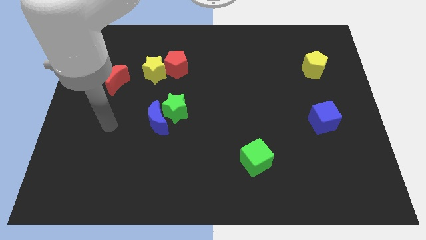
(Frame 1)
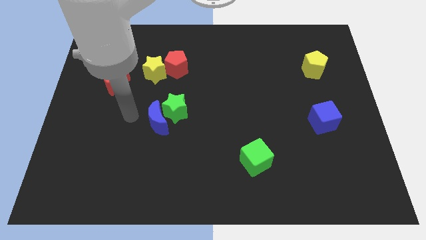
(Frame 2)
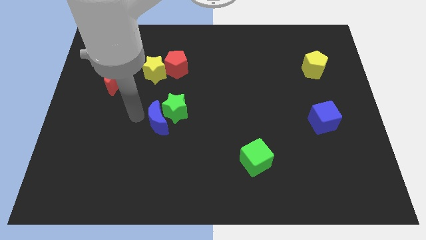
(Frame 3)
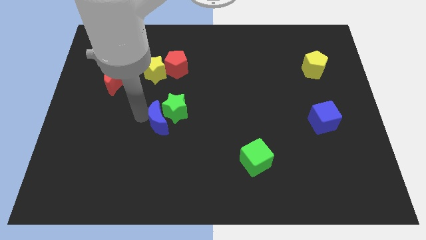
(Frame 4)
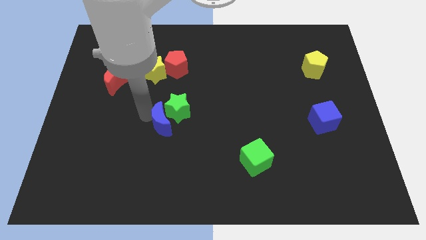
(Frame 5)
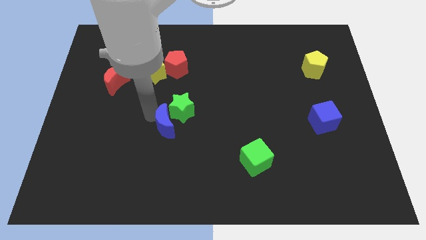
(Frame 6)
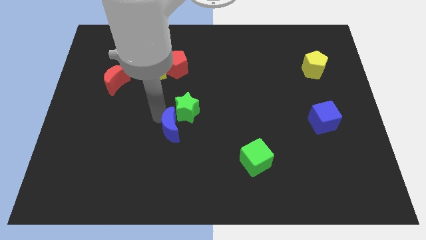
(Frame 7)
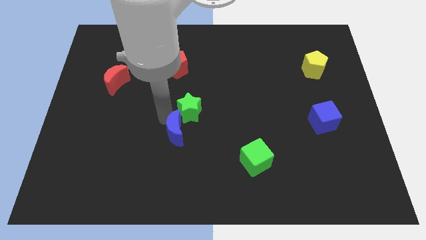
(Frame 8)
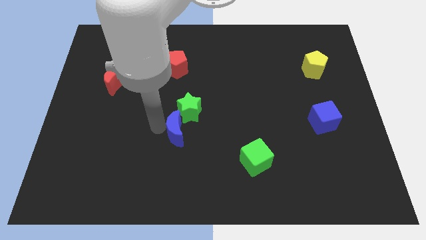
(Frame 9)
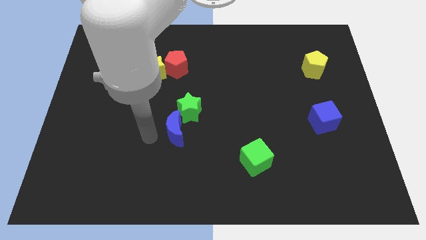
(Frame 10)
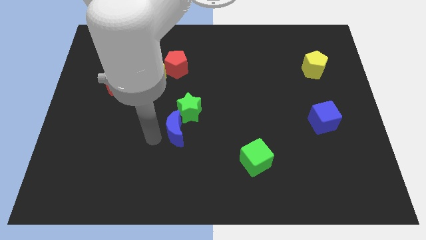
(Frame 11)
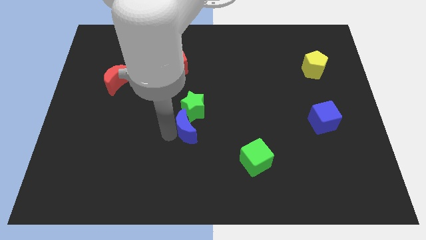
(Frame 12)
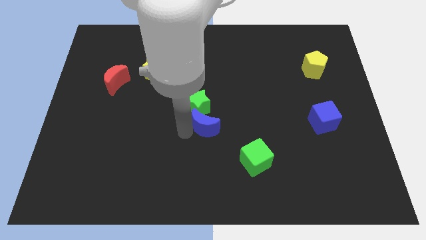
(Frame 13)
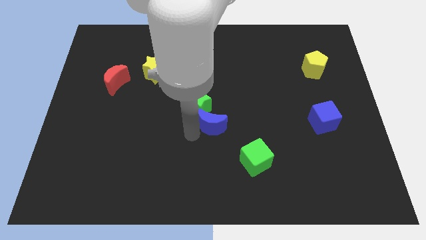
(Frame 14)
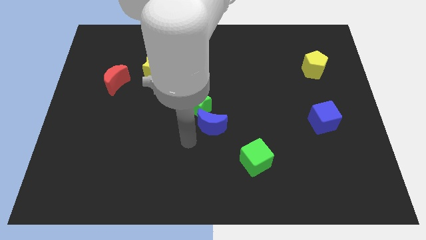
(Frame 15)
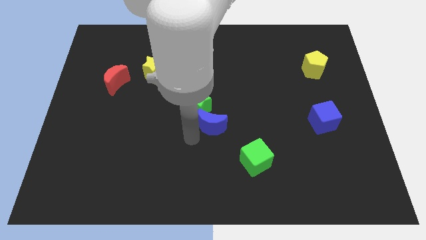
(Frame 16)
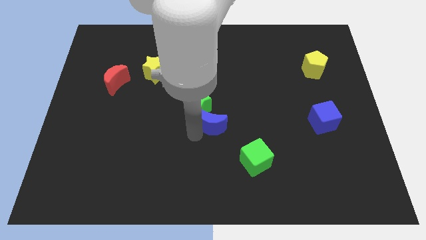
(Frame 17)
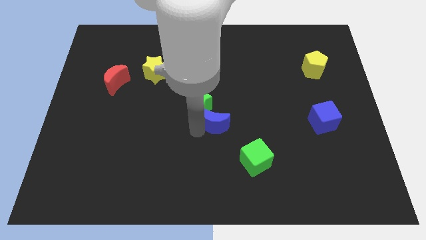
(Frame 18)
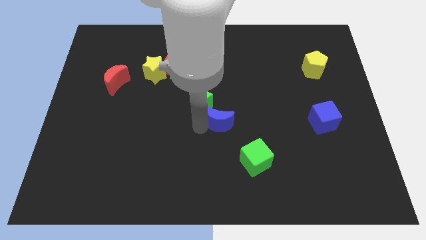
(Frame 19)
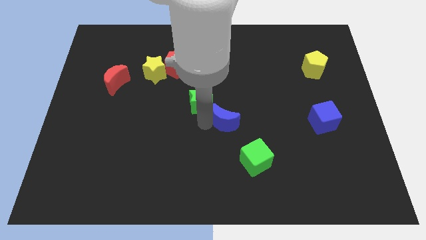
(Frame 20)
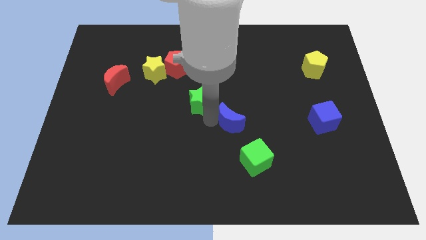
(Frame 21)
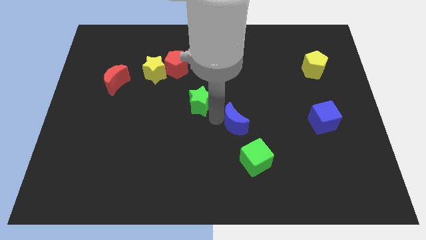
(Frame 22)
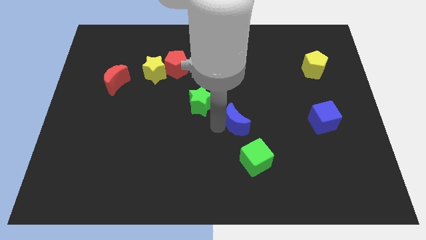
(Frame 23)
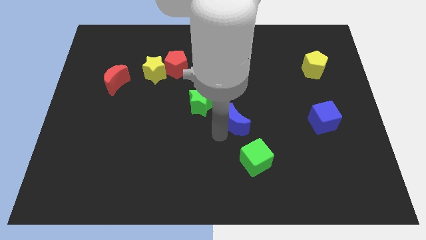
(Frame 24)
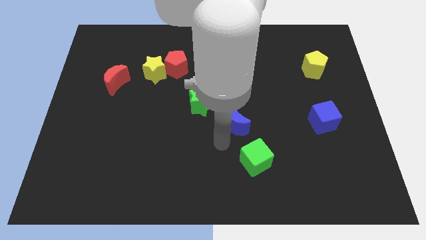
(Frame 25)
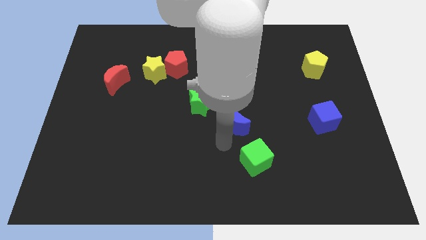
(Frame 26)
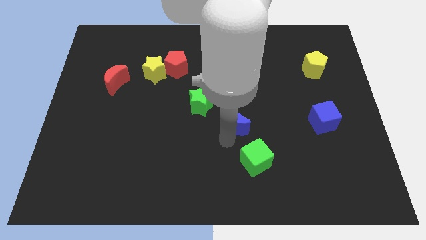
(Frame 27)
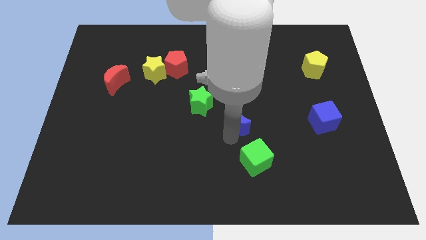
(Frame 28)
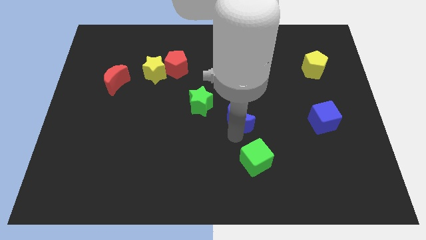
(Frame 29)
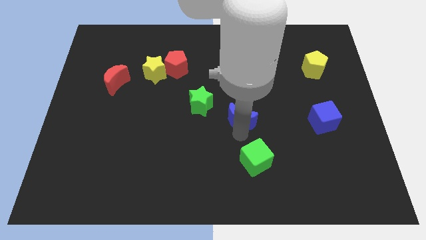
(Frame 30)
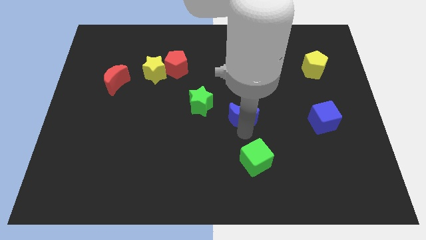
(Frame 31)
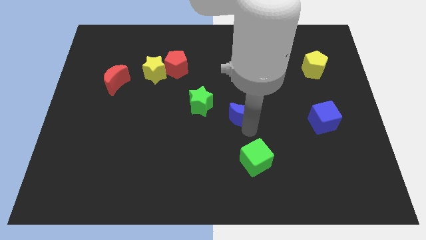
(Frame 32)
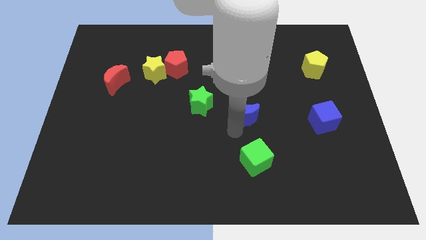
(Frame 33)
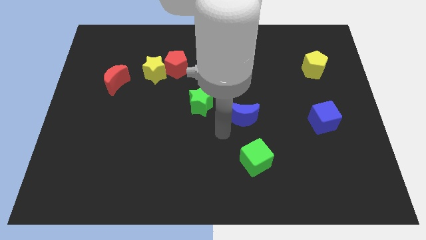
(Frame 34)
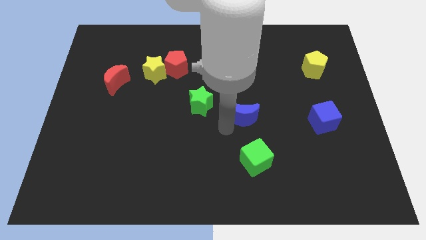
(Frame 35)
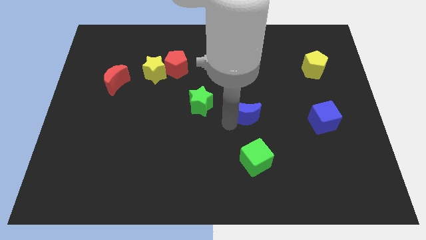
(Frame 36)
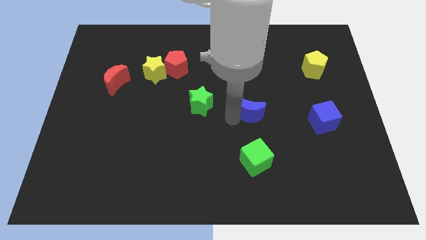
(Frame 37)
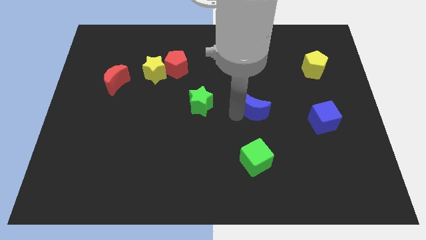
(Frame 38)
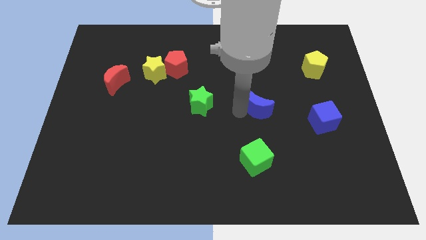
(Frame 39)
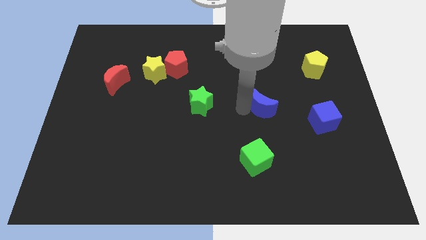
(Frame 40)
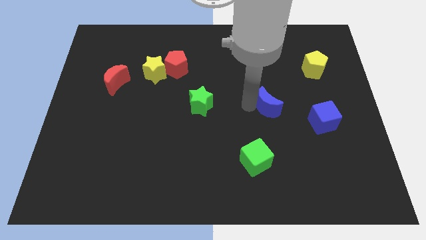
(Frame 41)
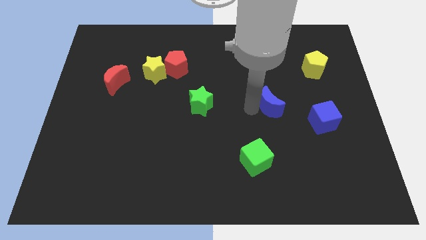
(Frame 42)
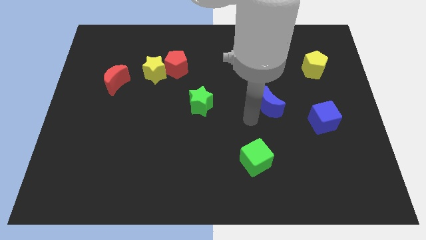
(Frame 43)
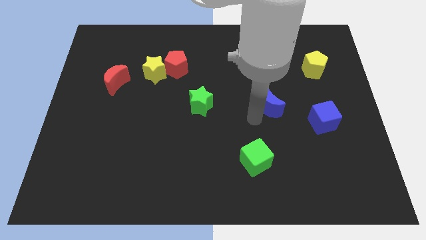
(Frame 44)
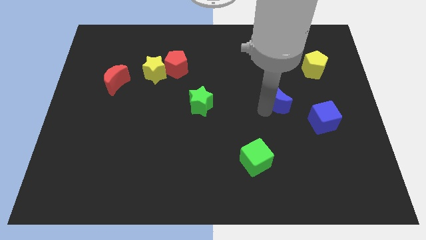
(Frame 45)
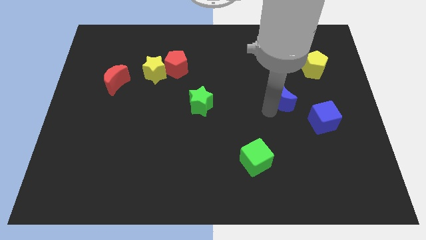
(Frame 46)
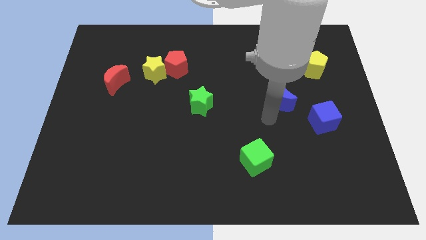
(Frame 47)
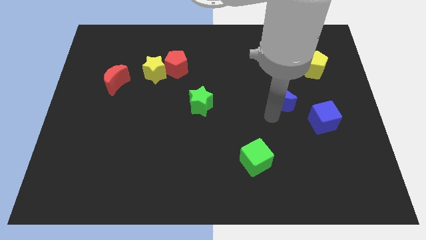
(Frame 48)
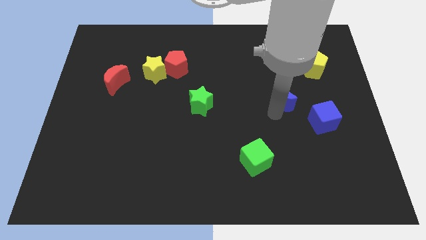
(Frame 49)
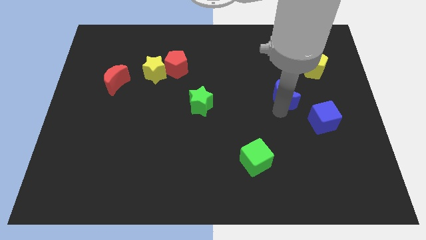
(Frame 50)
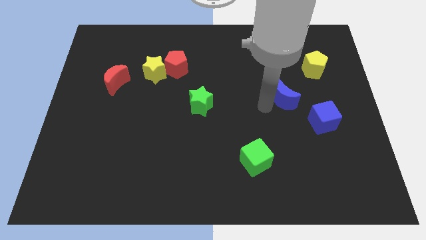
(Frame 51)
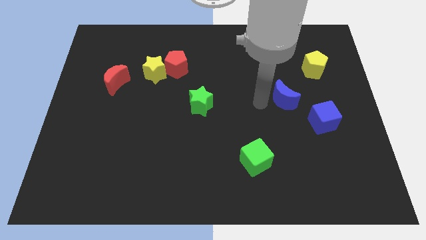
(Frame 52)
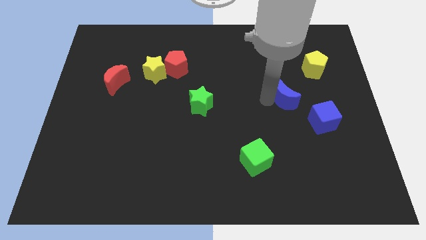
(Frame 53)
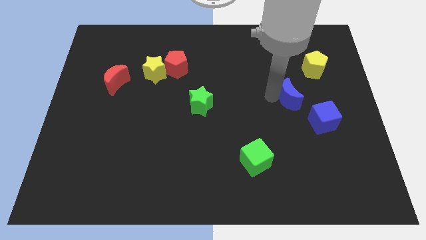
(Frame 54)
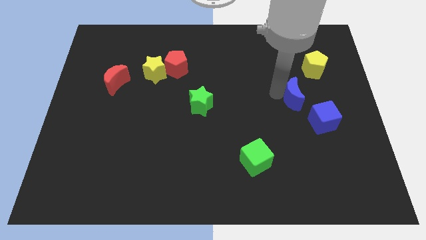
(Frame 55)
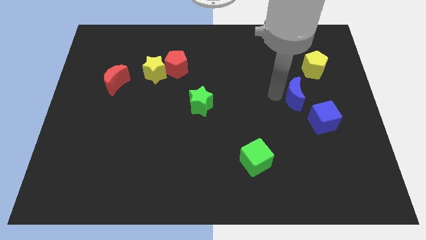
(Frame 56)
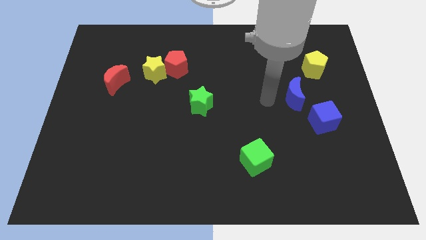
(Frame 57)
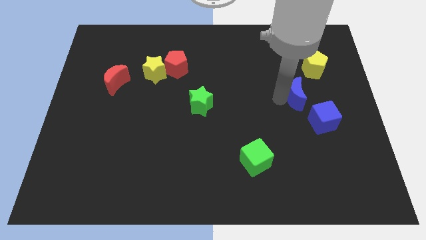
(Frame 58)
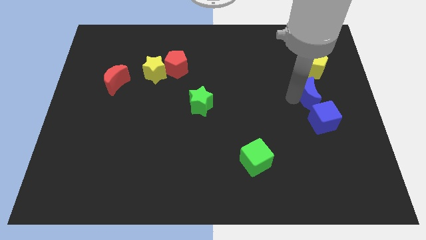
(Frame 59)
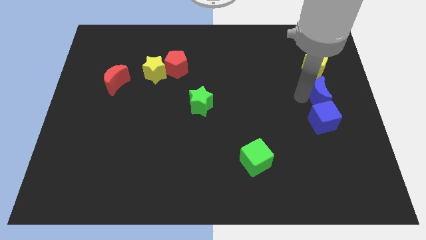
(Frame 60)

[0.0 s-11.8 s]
push the blue moon to the right side of the board
